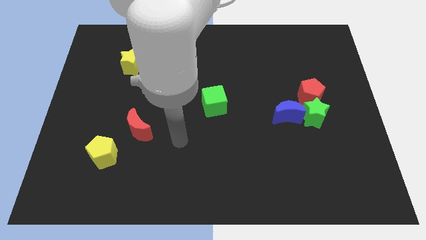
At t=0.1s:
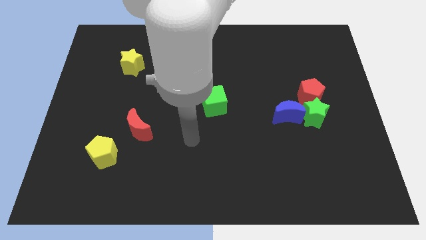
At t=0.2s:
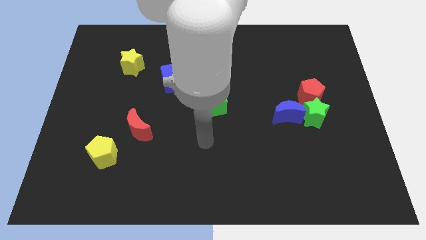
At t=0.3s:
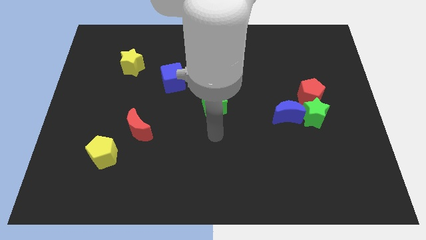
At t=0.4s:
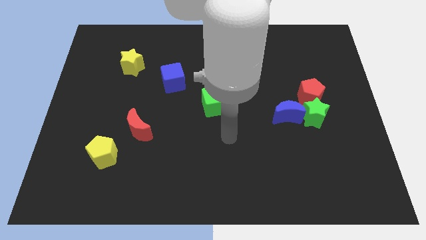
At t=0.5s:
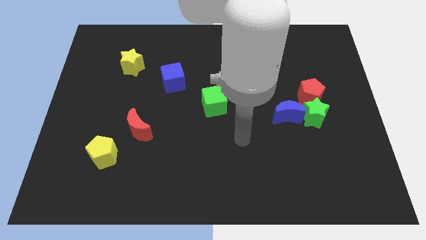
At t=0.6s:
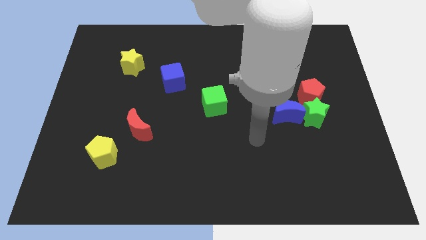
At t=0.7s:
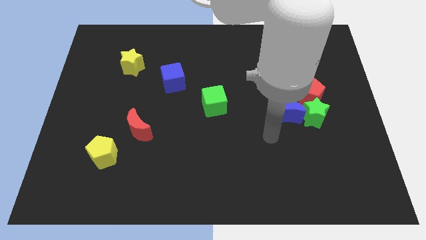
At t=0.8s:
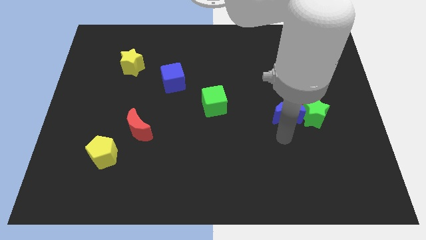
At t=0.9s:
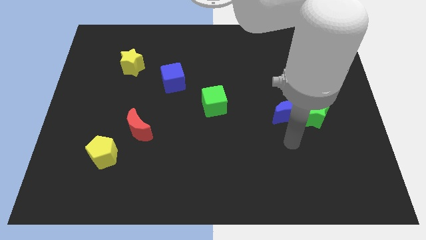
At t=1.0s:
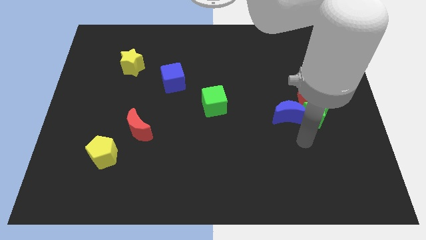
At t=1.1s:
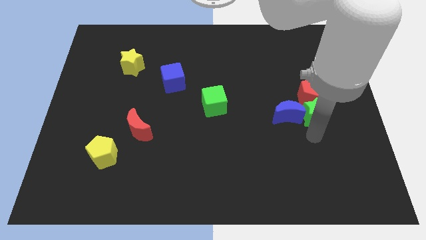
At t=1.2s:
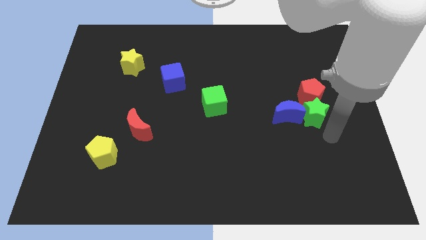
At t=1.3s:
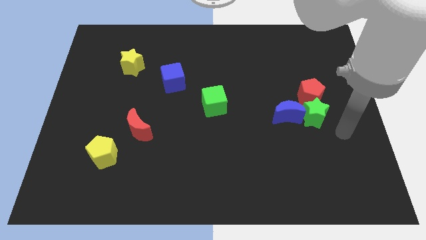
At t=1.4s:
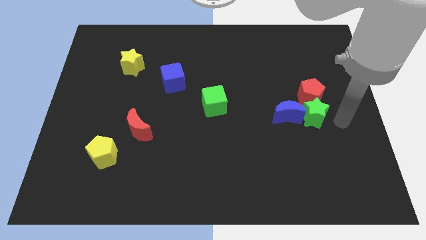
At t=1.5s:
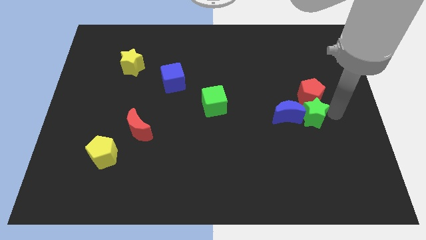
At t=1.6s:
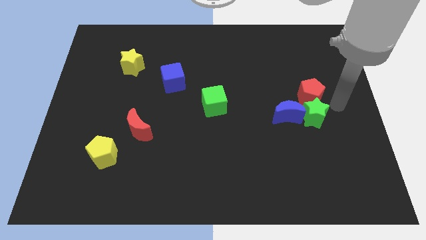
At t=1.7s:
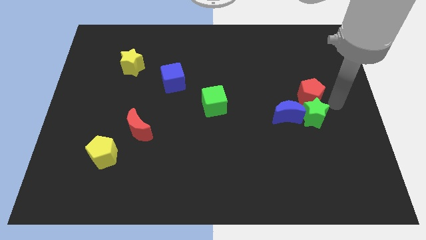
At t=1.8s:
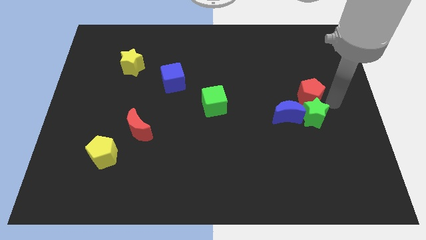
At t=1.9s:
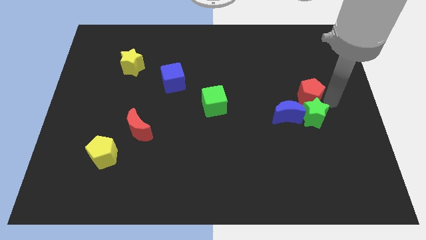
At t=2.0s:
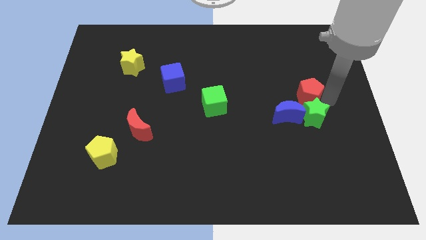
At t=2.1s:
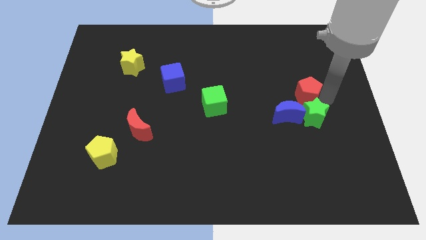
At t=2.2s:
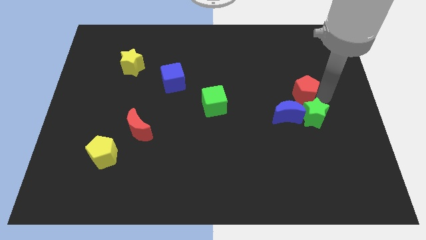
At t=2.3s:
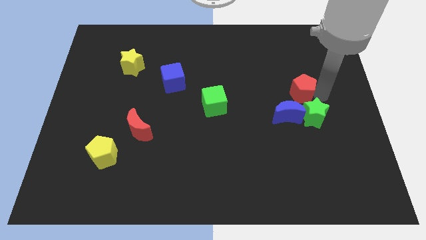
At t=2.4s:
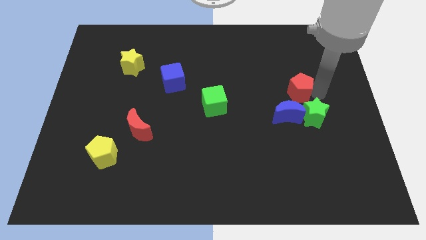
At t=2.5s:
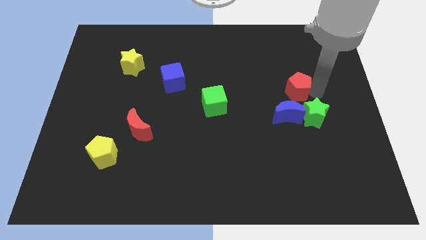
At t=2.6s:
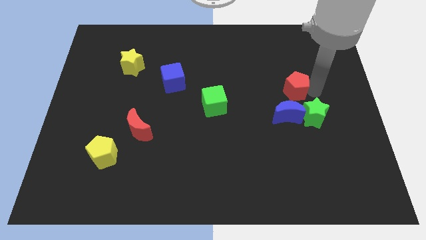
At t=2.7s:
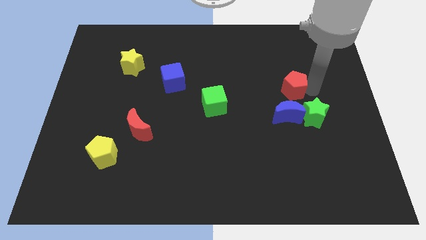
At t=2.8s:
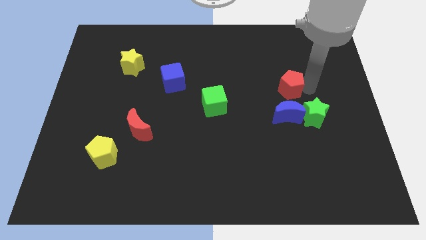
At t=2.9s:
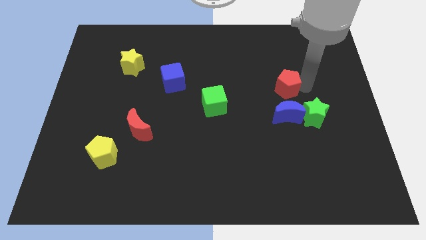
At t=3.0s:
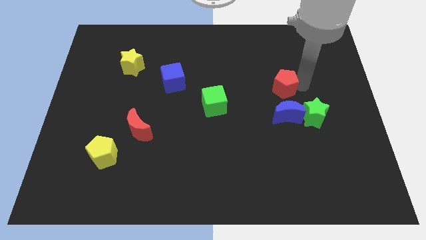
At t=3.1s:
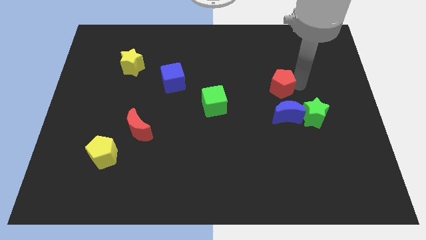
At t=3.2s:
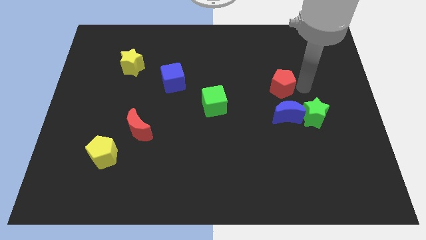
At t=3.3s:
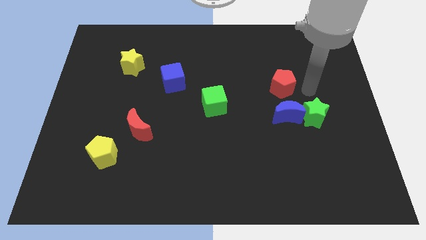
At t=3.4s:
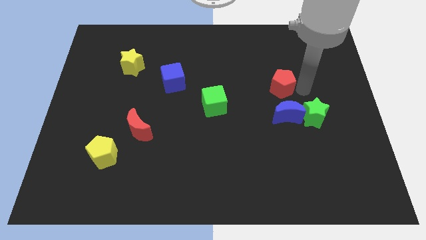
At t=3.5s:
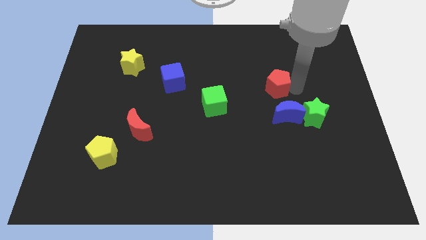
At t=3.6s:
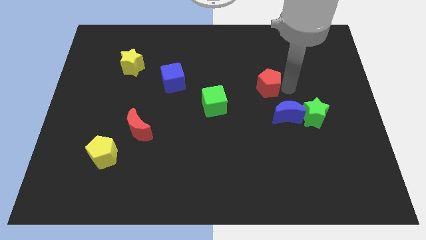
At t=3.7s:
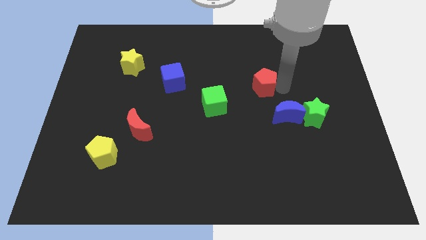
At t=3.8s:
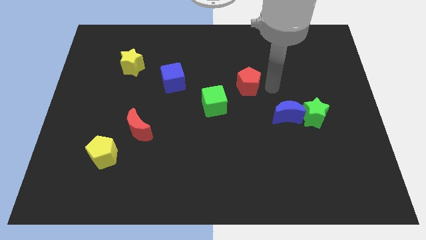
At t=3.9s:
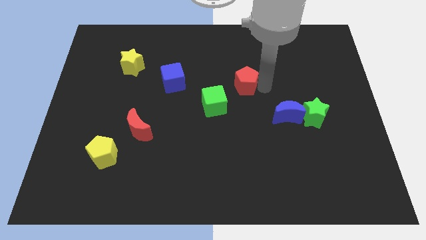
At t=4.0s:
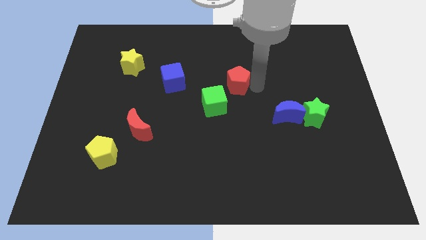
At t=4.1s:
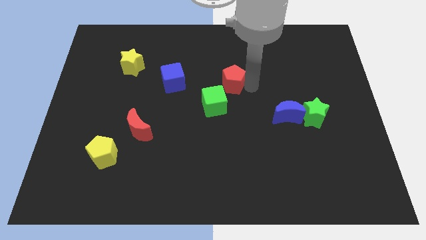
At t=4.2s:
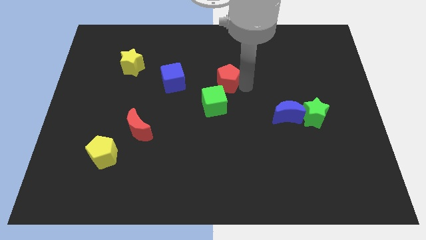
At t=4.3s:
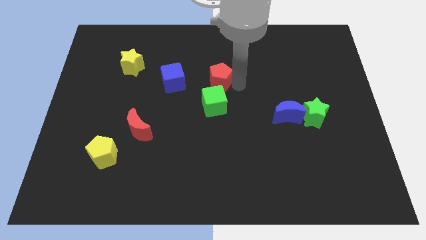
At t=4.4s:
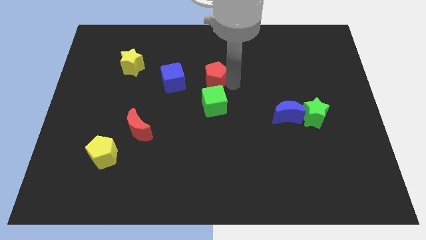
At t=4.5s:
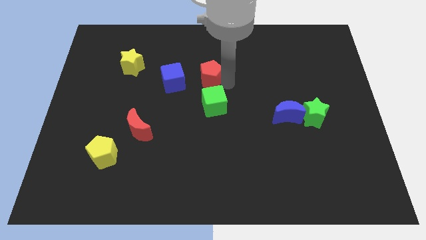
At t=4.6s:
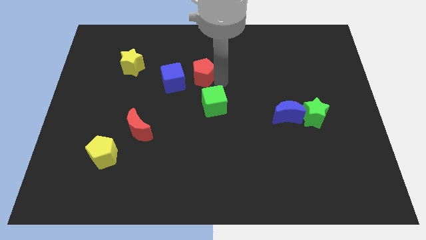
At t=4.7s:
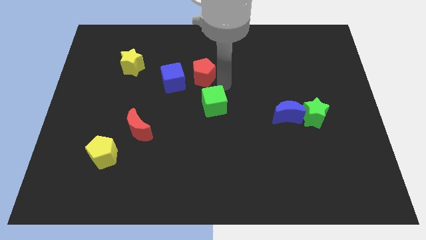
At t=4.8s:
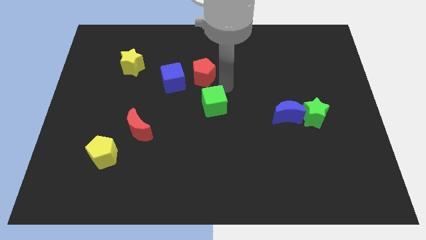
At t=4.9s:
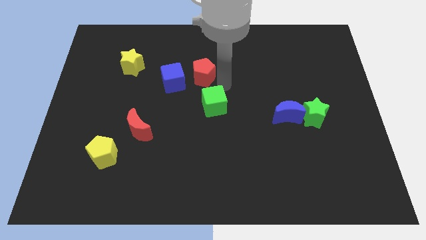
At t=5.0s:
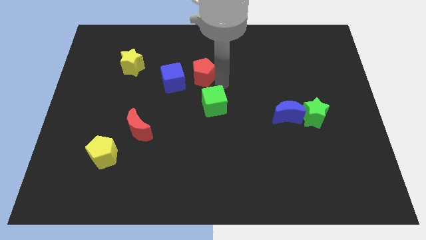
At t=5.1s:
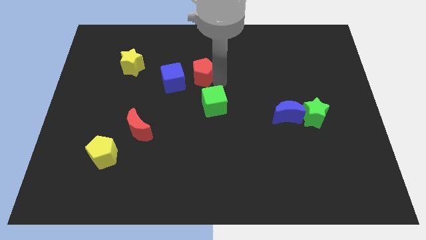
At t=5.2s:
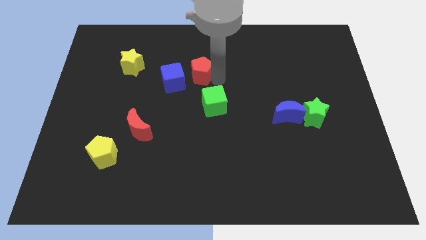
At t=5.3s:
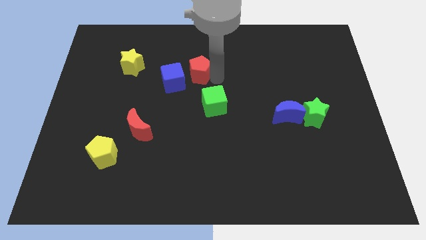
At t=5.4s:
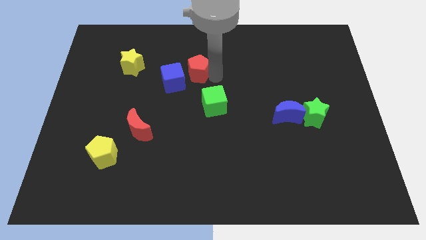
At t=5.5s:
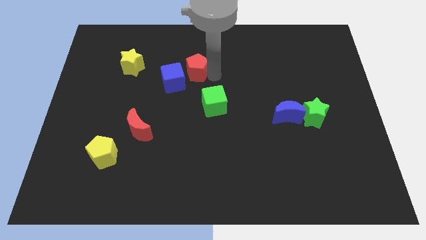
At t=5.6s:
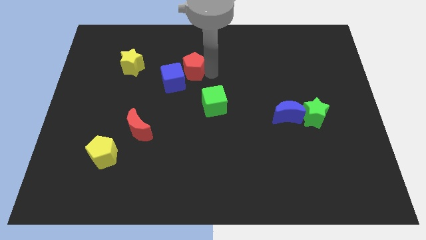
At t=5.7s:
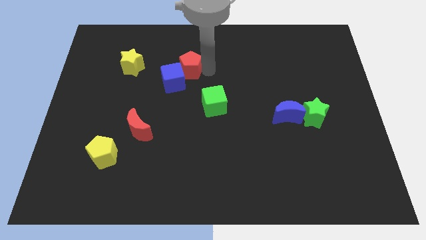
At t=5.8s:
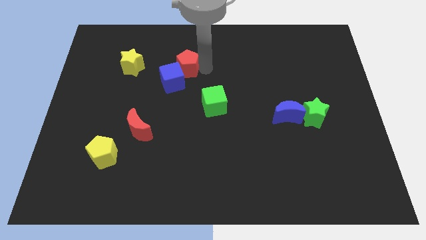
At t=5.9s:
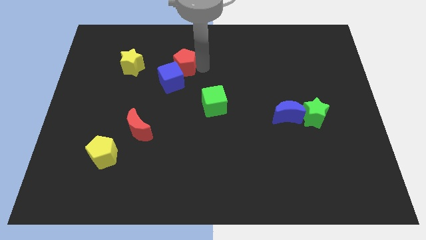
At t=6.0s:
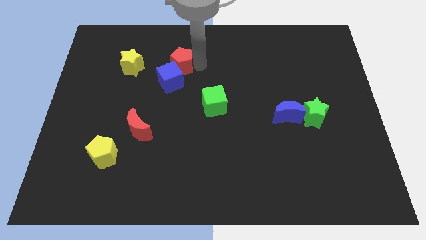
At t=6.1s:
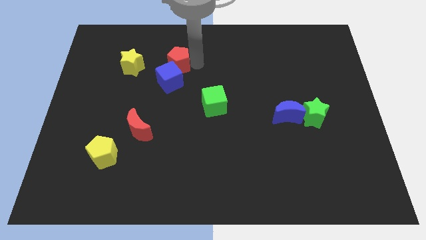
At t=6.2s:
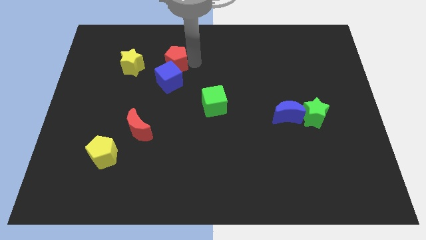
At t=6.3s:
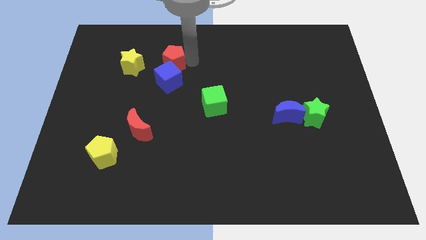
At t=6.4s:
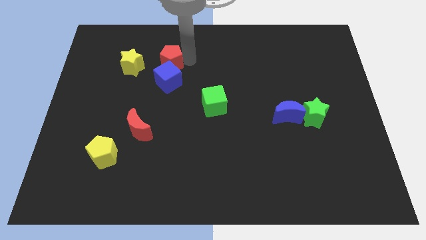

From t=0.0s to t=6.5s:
push the red pentagon to the top left of the blue cube

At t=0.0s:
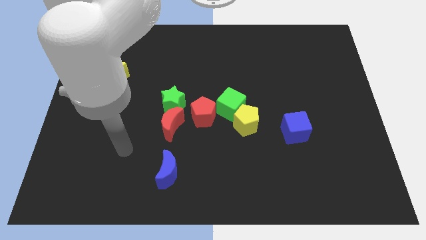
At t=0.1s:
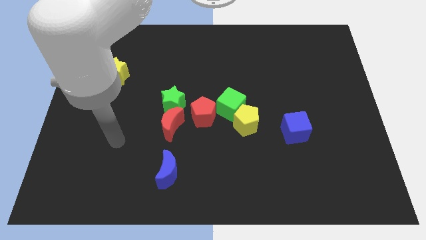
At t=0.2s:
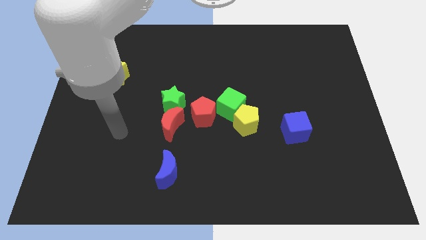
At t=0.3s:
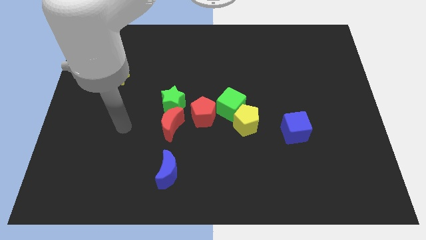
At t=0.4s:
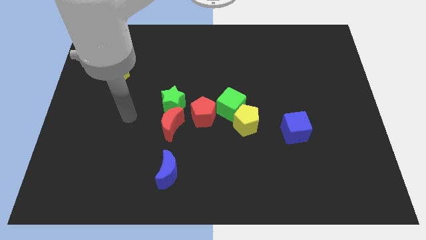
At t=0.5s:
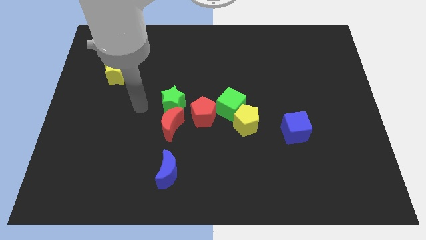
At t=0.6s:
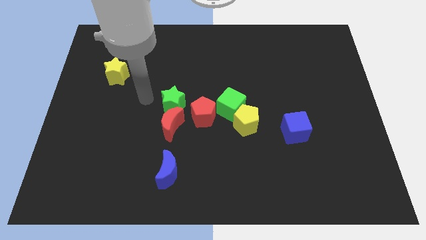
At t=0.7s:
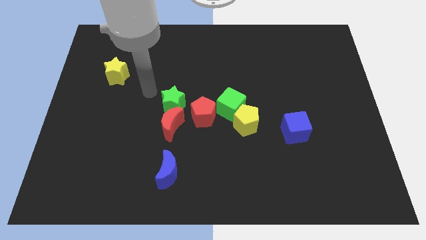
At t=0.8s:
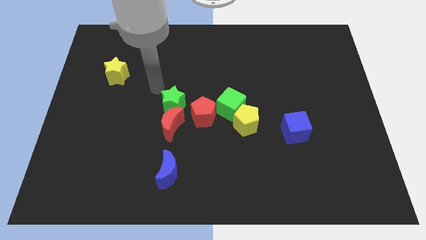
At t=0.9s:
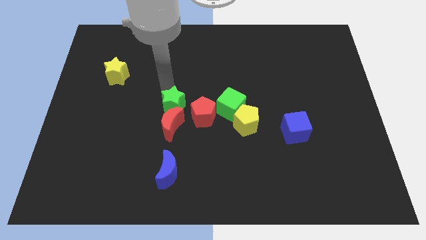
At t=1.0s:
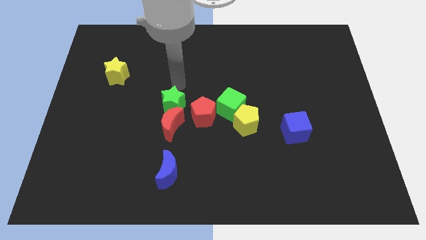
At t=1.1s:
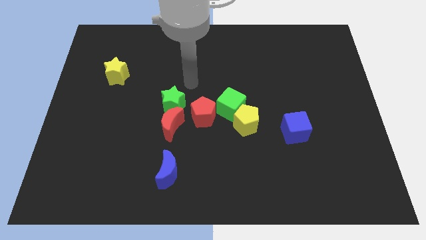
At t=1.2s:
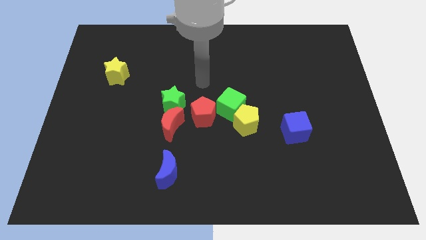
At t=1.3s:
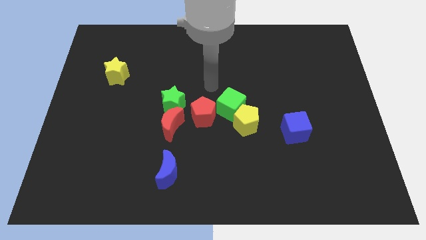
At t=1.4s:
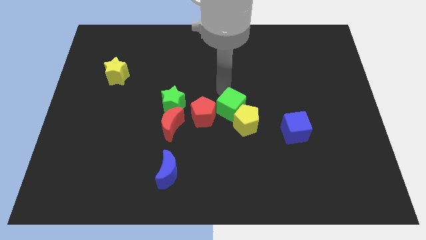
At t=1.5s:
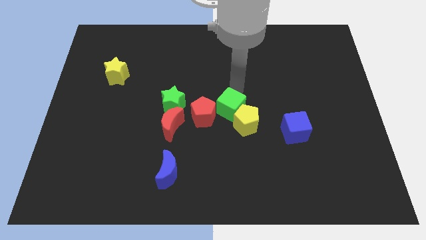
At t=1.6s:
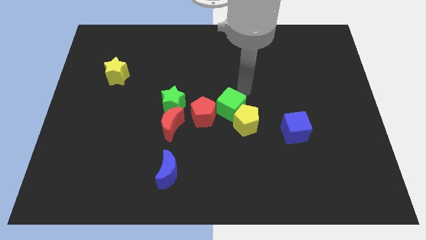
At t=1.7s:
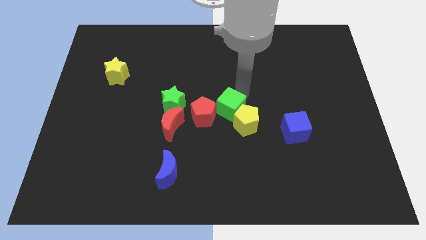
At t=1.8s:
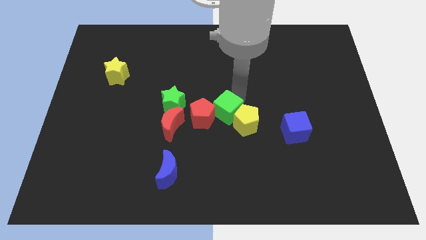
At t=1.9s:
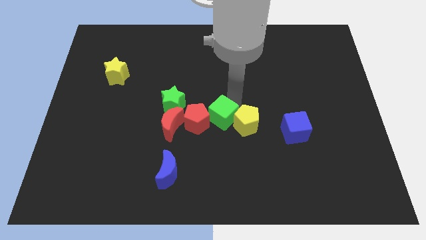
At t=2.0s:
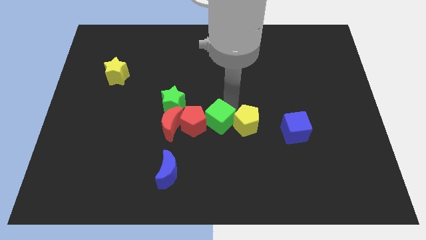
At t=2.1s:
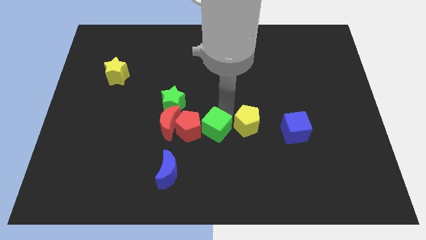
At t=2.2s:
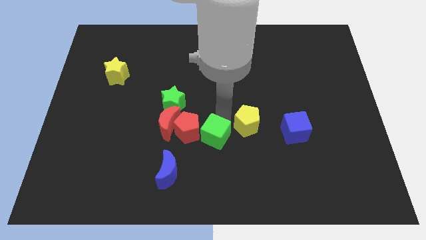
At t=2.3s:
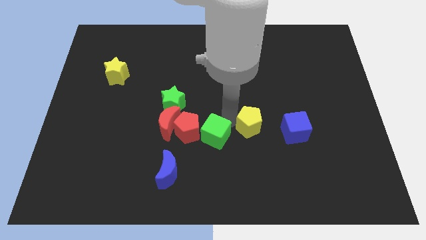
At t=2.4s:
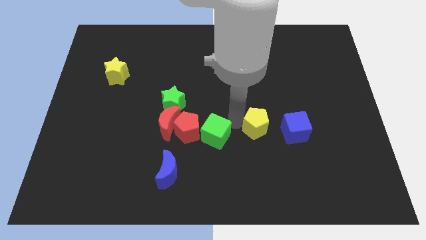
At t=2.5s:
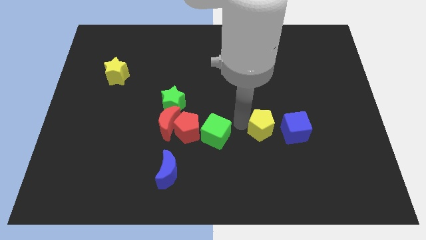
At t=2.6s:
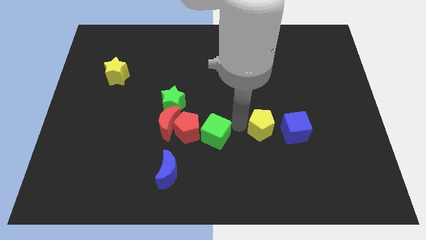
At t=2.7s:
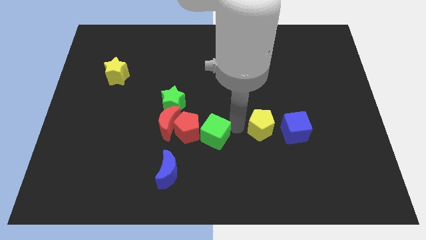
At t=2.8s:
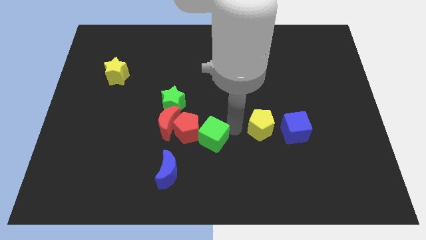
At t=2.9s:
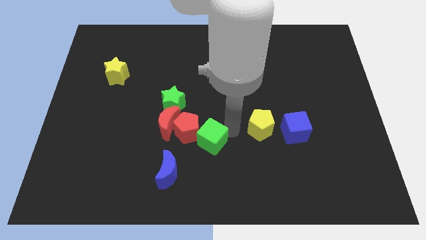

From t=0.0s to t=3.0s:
slide the green cube to the bottom right of the red moon
